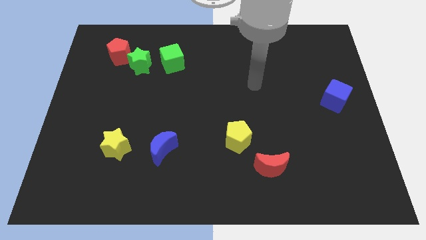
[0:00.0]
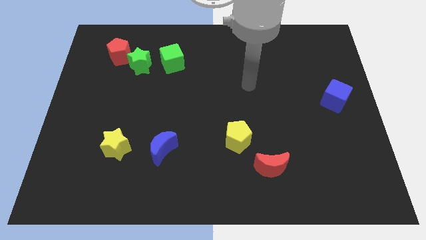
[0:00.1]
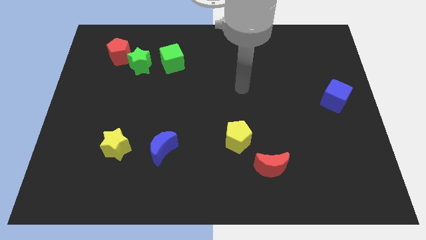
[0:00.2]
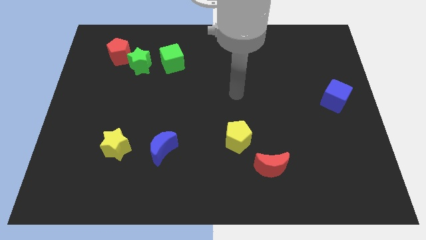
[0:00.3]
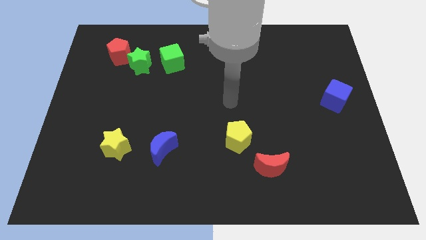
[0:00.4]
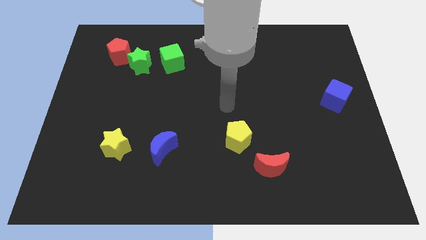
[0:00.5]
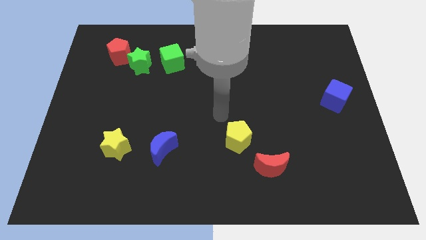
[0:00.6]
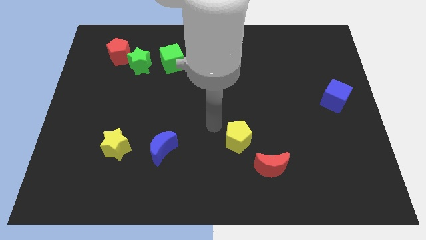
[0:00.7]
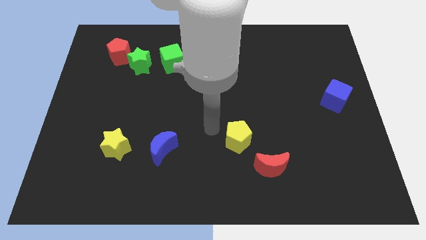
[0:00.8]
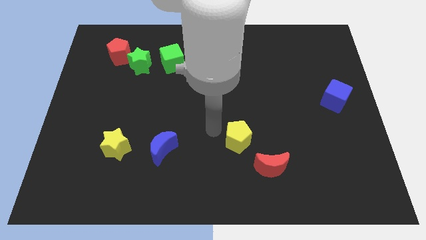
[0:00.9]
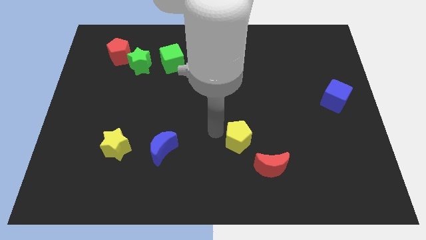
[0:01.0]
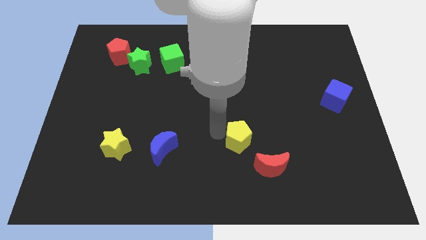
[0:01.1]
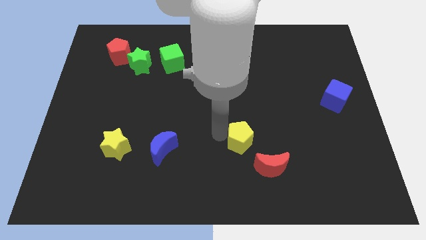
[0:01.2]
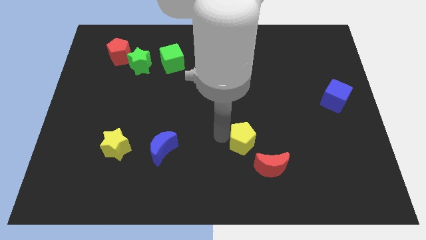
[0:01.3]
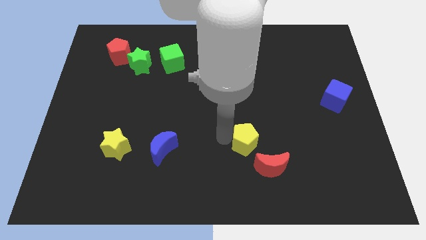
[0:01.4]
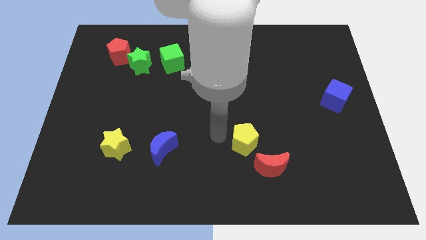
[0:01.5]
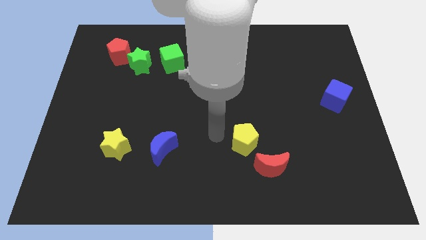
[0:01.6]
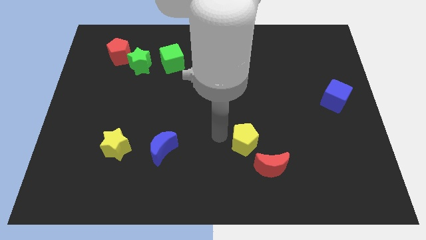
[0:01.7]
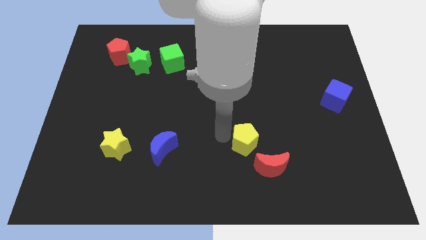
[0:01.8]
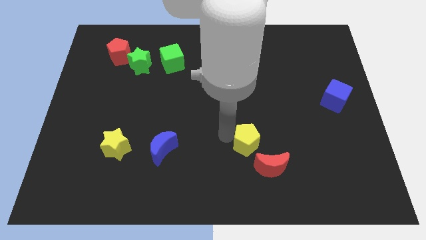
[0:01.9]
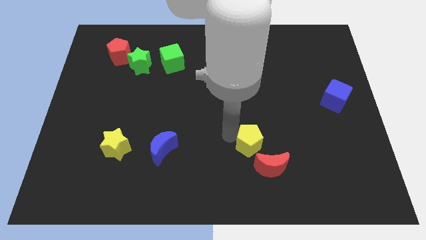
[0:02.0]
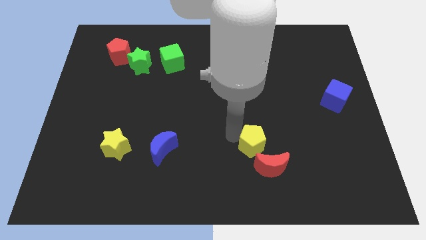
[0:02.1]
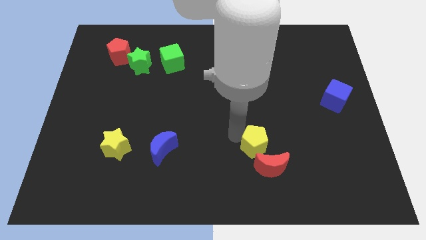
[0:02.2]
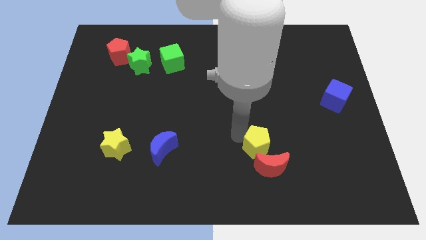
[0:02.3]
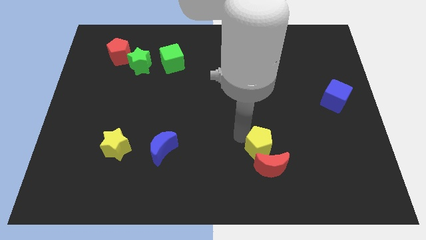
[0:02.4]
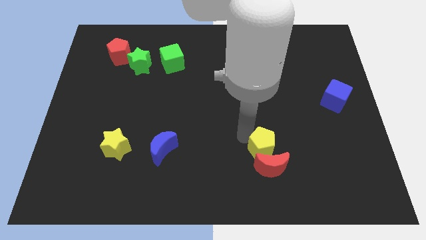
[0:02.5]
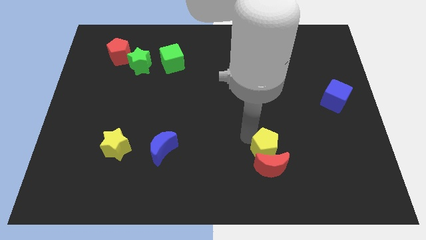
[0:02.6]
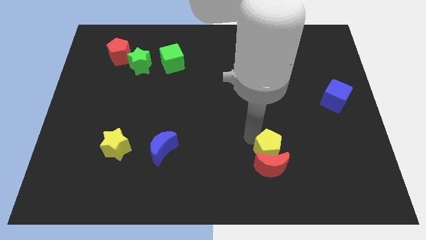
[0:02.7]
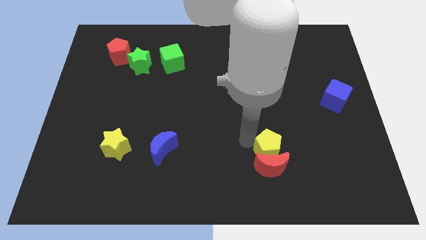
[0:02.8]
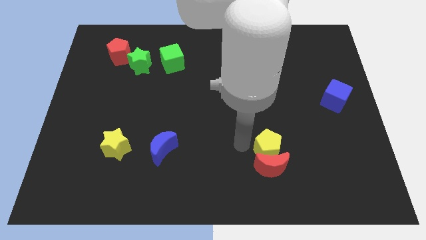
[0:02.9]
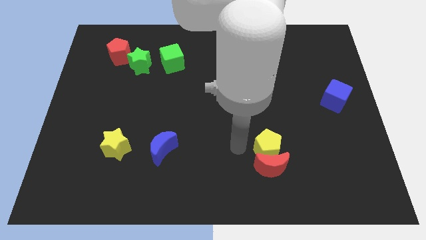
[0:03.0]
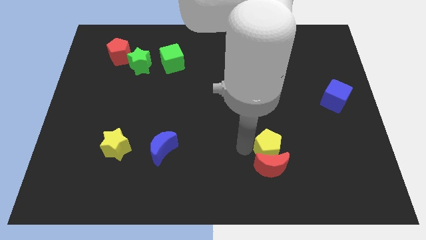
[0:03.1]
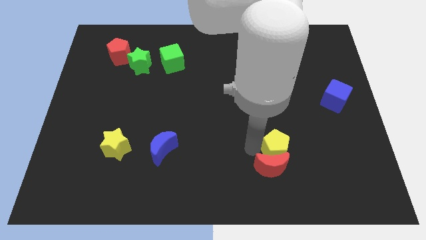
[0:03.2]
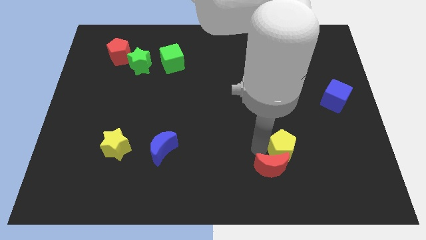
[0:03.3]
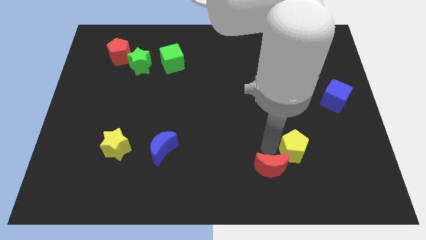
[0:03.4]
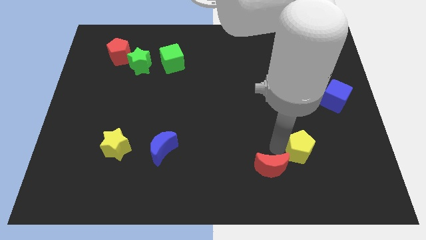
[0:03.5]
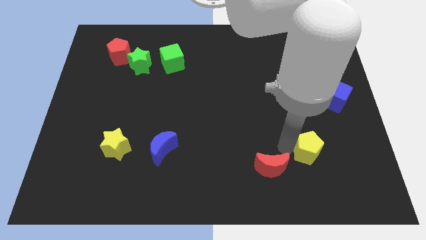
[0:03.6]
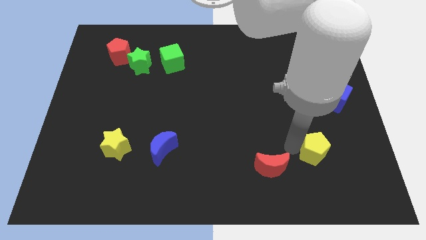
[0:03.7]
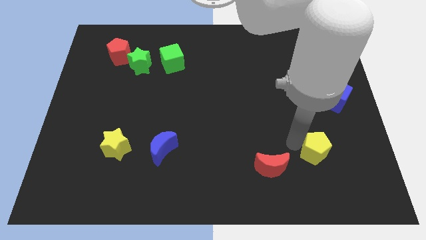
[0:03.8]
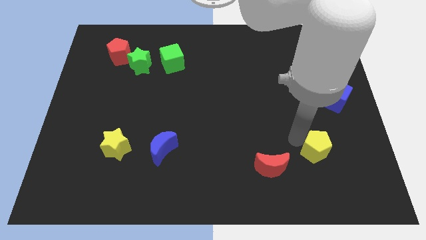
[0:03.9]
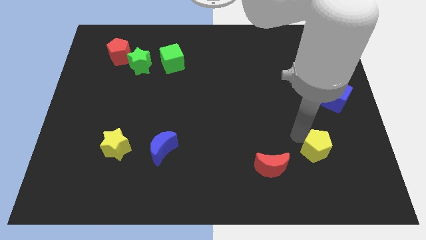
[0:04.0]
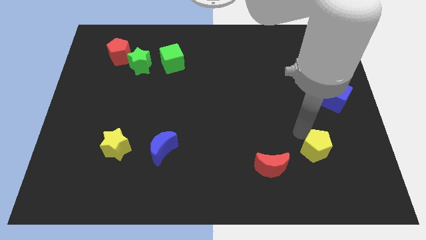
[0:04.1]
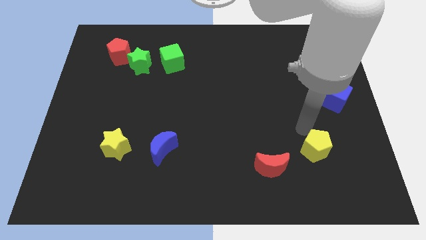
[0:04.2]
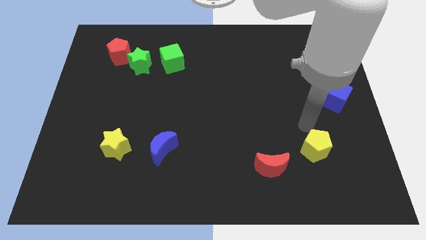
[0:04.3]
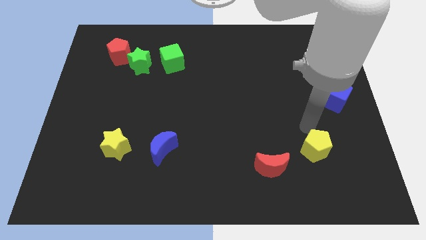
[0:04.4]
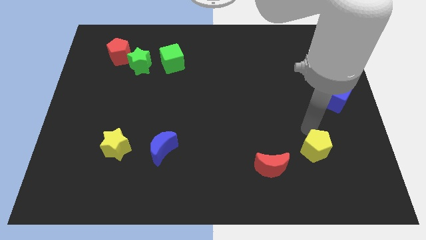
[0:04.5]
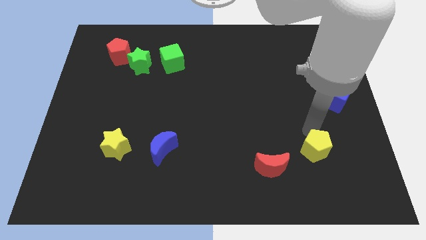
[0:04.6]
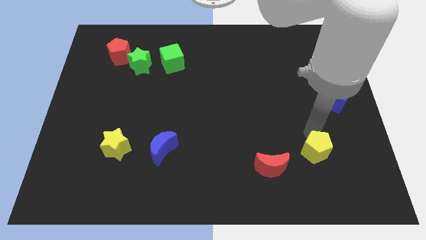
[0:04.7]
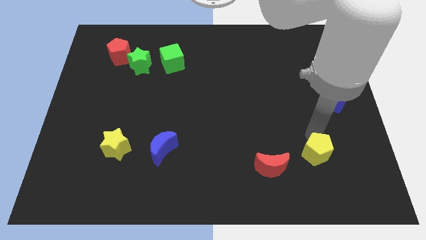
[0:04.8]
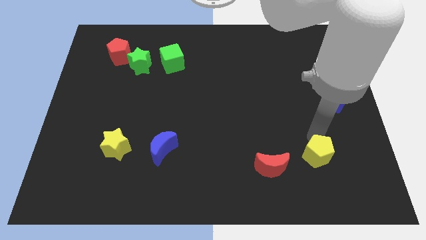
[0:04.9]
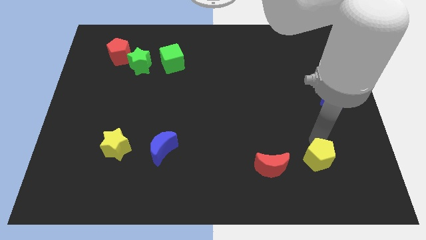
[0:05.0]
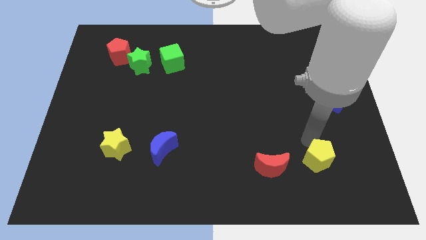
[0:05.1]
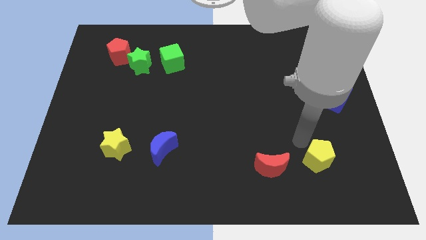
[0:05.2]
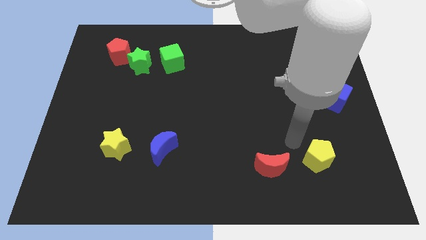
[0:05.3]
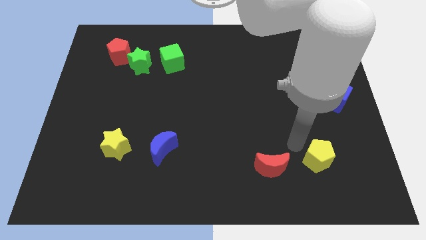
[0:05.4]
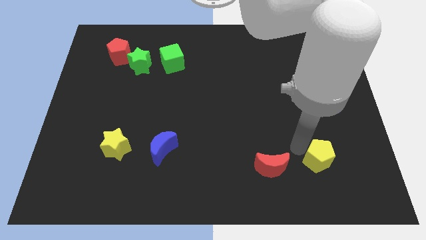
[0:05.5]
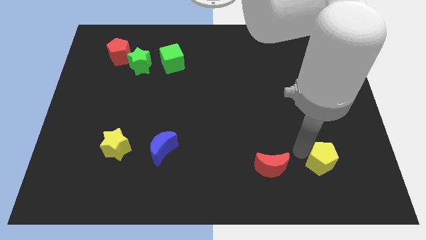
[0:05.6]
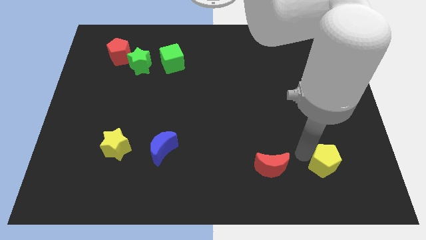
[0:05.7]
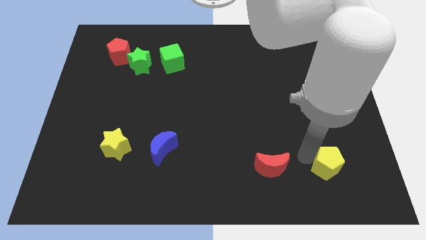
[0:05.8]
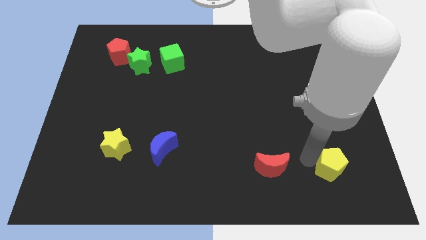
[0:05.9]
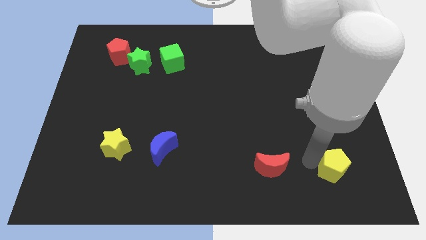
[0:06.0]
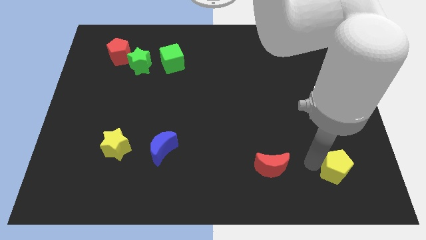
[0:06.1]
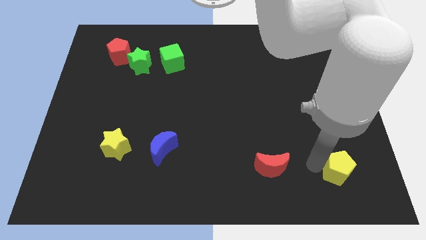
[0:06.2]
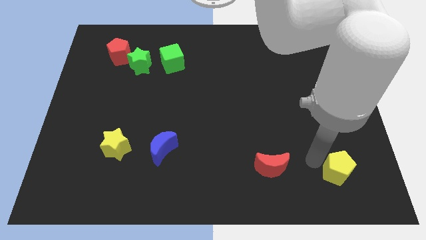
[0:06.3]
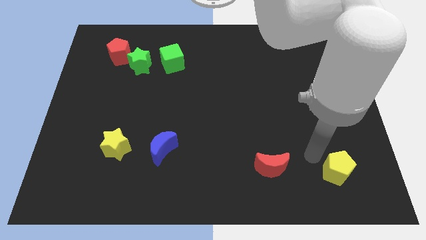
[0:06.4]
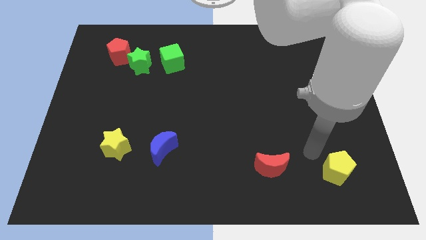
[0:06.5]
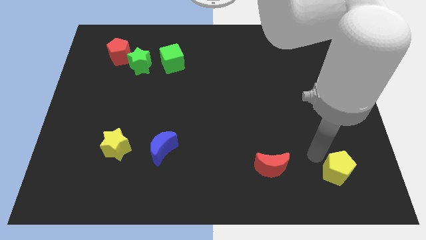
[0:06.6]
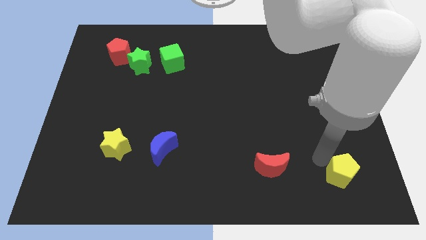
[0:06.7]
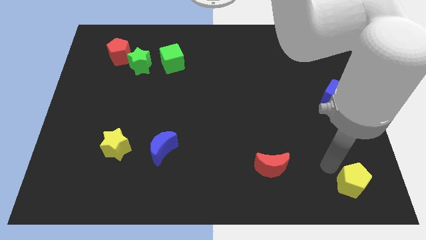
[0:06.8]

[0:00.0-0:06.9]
move the yellow pentagon to the bottom right corner
